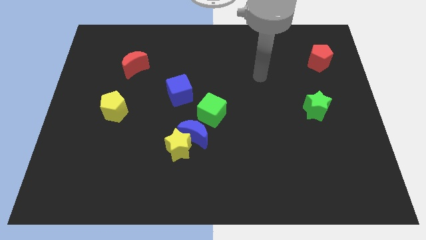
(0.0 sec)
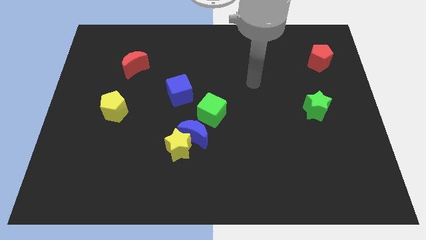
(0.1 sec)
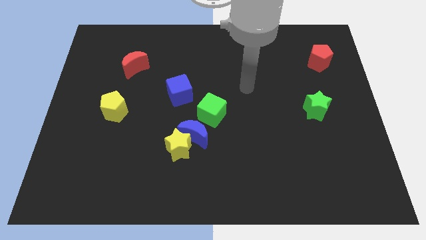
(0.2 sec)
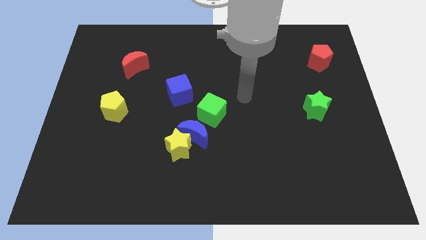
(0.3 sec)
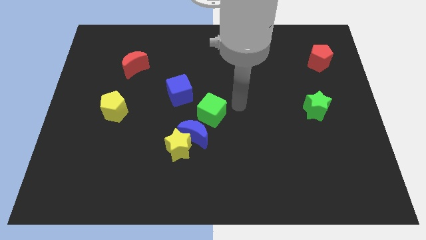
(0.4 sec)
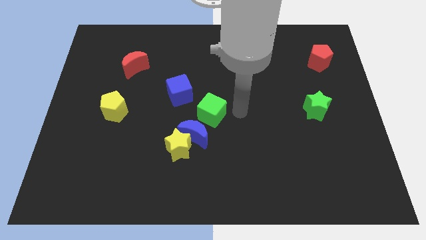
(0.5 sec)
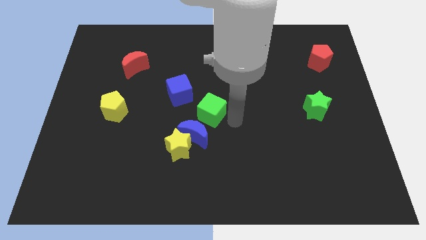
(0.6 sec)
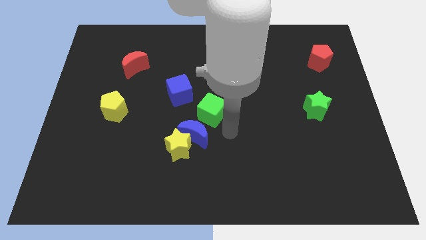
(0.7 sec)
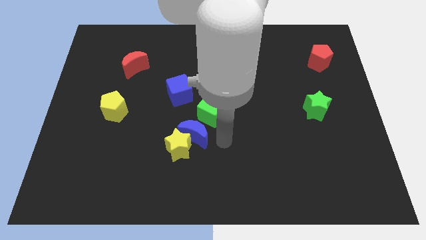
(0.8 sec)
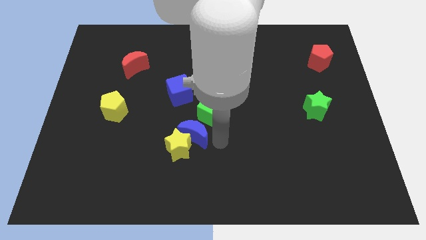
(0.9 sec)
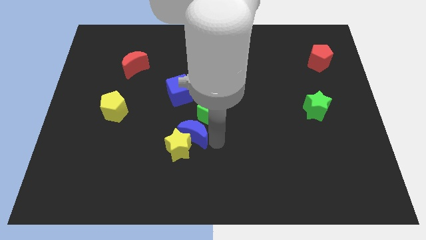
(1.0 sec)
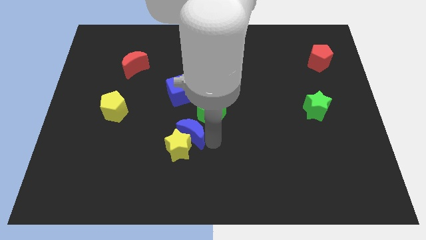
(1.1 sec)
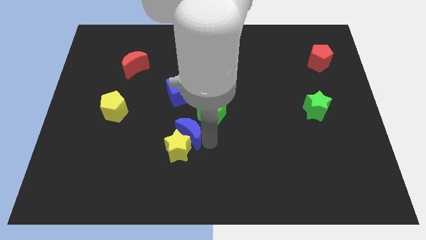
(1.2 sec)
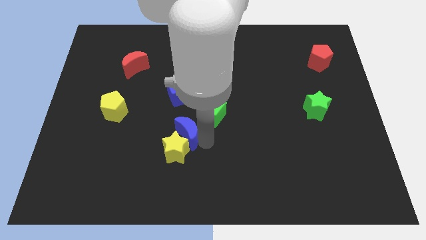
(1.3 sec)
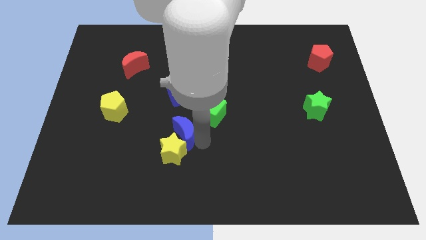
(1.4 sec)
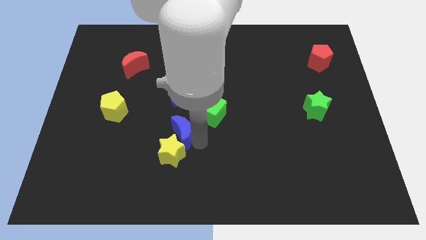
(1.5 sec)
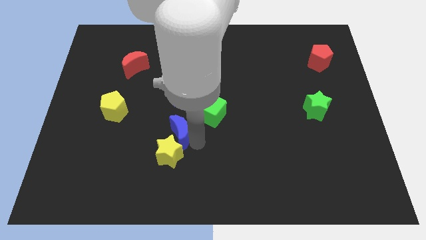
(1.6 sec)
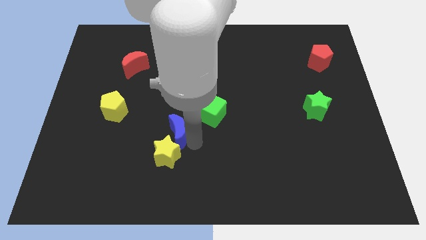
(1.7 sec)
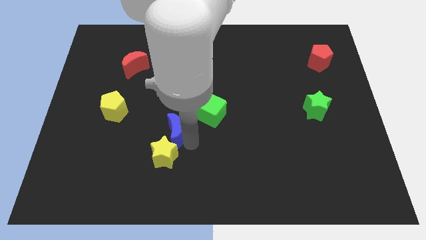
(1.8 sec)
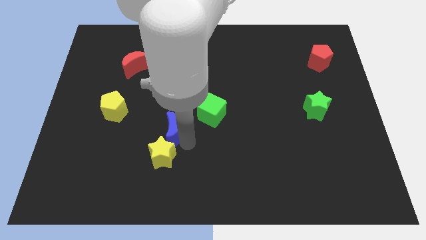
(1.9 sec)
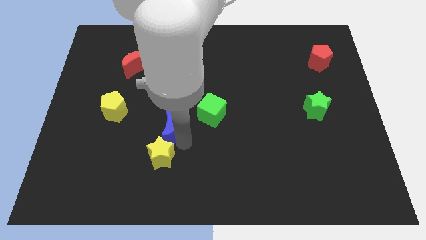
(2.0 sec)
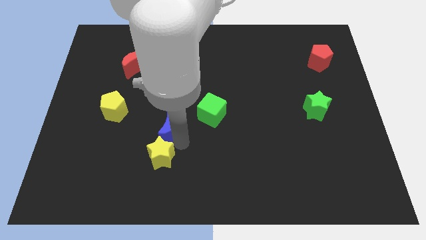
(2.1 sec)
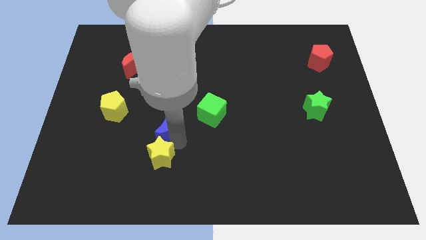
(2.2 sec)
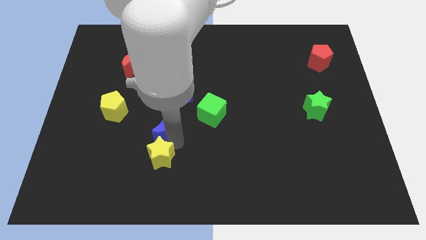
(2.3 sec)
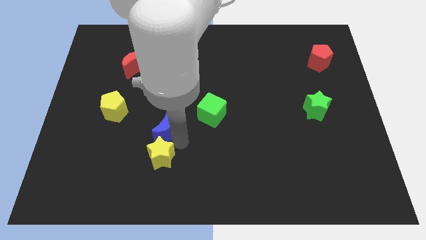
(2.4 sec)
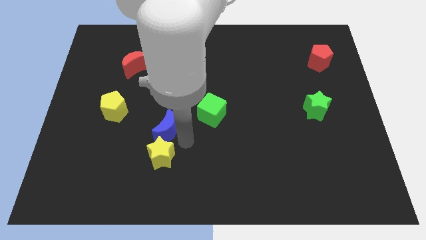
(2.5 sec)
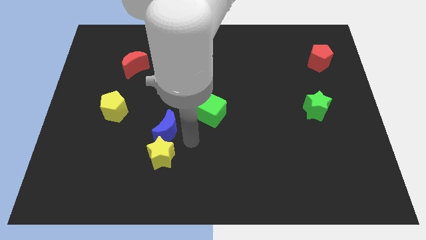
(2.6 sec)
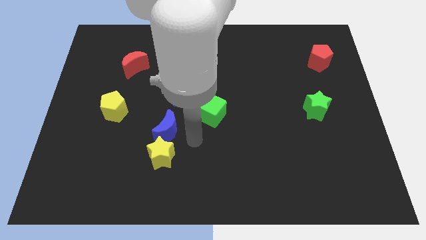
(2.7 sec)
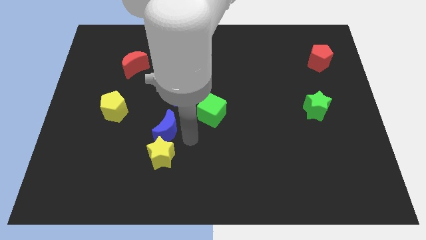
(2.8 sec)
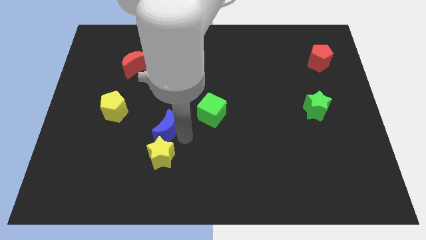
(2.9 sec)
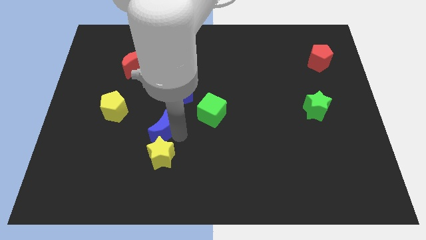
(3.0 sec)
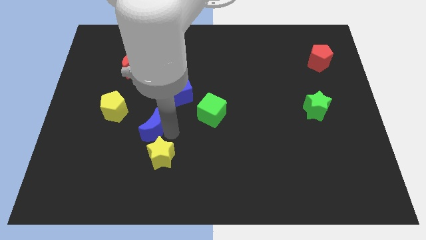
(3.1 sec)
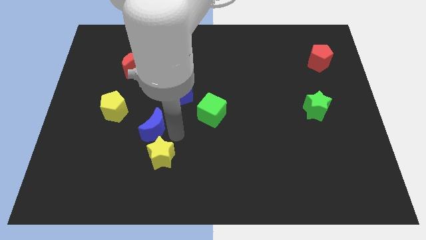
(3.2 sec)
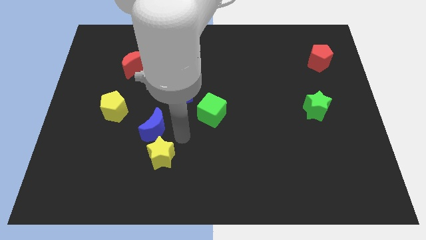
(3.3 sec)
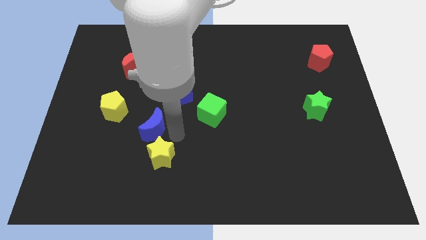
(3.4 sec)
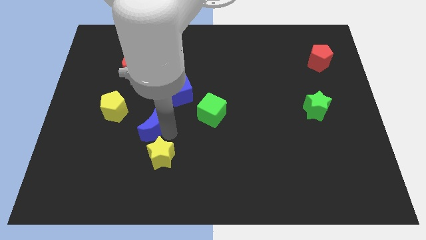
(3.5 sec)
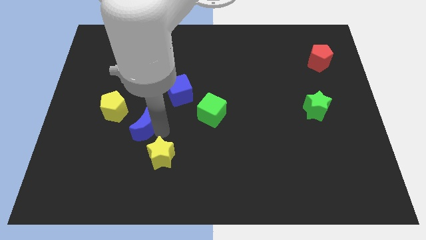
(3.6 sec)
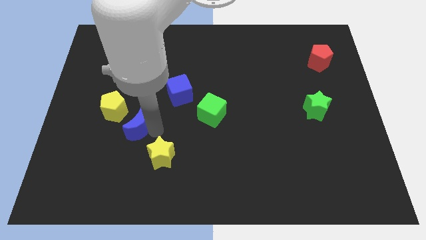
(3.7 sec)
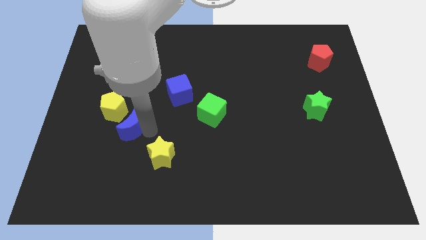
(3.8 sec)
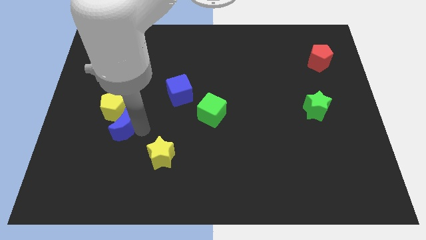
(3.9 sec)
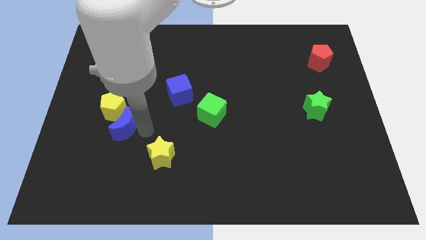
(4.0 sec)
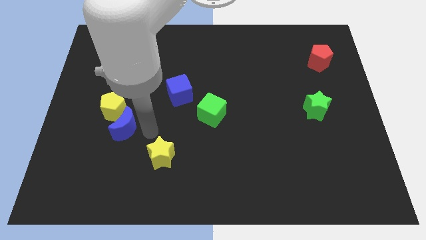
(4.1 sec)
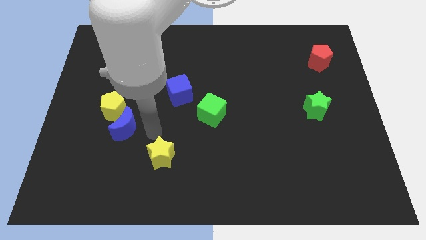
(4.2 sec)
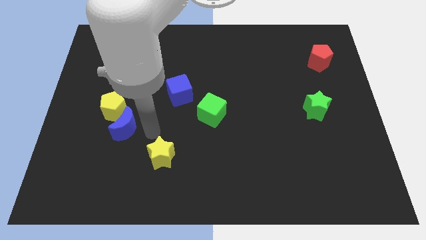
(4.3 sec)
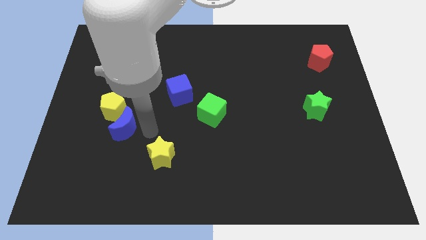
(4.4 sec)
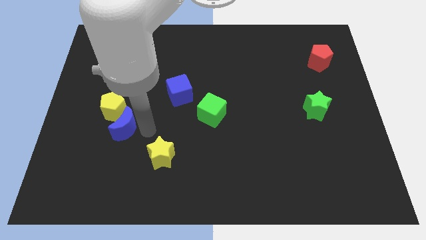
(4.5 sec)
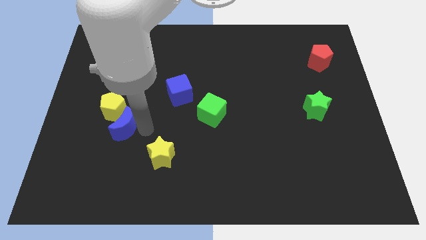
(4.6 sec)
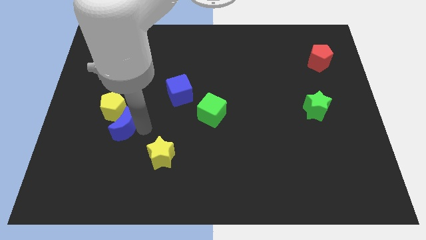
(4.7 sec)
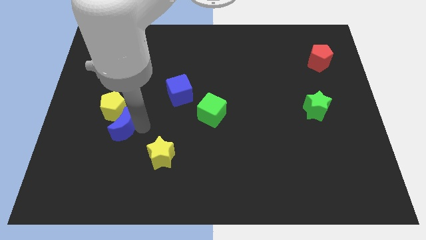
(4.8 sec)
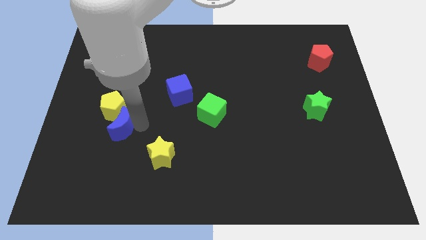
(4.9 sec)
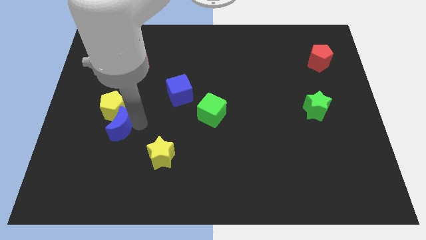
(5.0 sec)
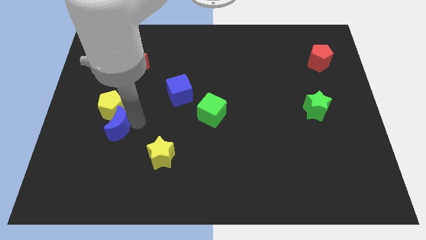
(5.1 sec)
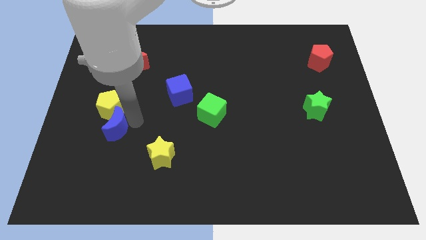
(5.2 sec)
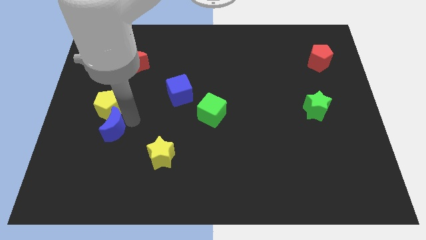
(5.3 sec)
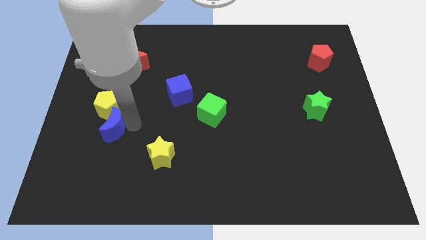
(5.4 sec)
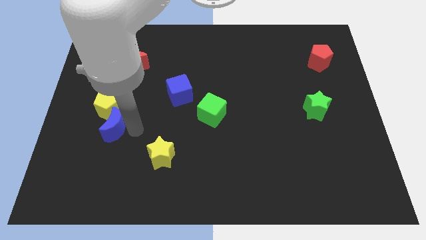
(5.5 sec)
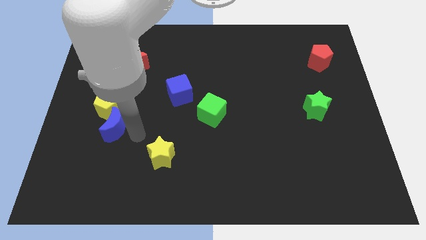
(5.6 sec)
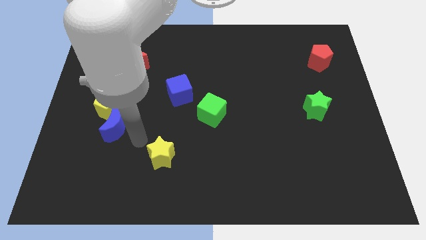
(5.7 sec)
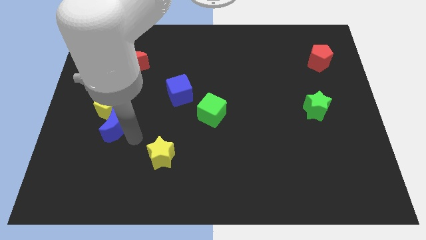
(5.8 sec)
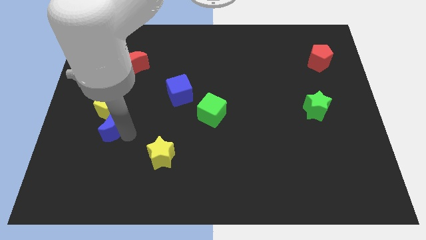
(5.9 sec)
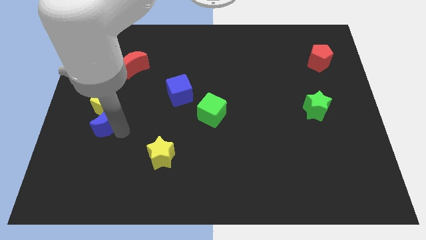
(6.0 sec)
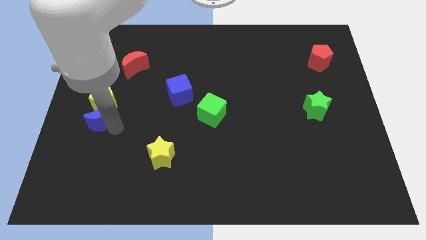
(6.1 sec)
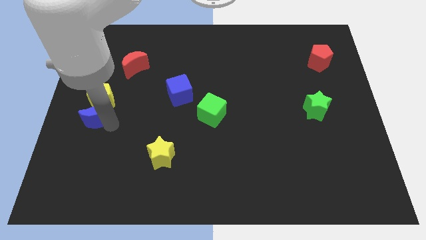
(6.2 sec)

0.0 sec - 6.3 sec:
push the blue moon to the left side
